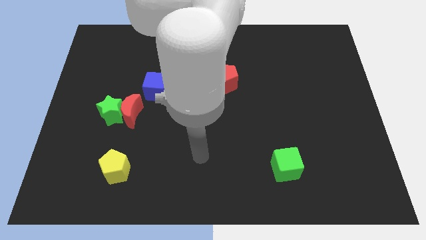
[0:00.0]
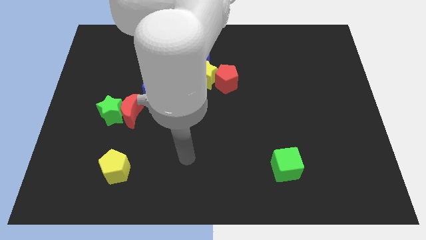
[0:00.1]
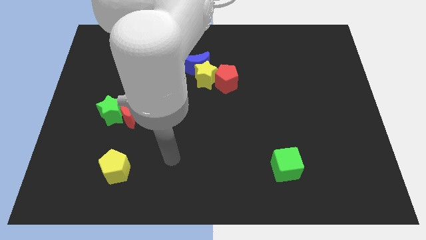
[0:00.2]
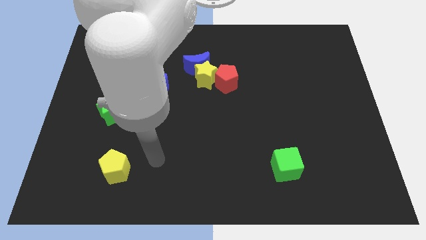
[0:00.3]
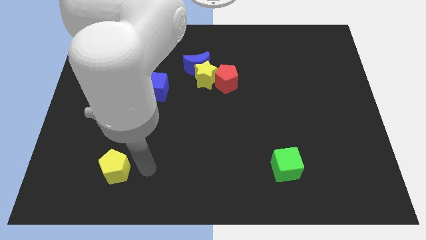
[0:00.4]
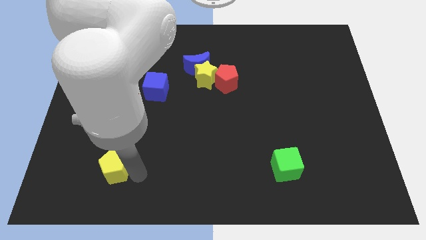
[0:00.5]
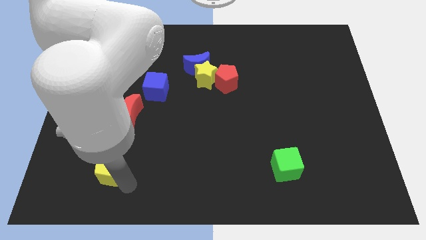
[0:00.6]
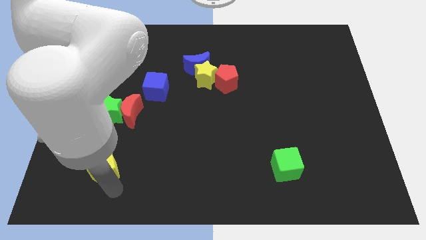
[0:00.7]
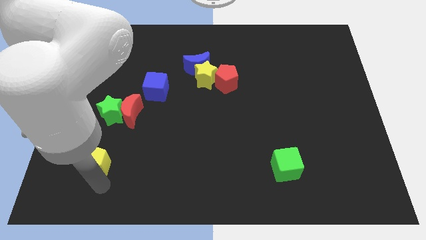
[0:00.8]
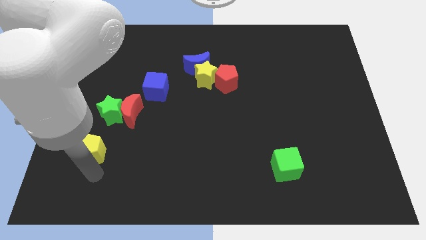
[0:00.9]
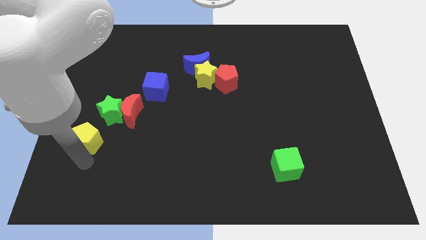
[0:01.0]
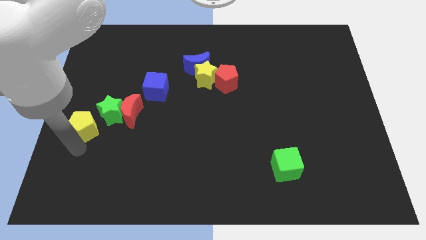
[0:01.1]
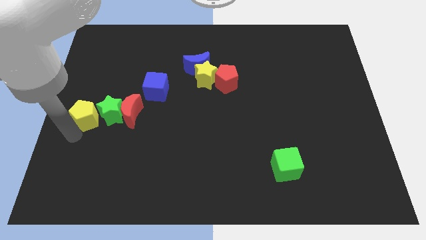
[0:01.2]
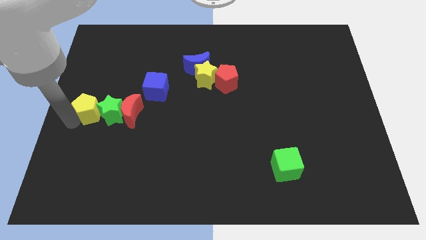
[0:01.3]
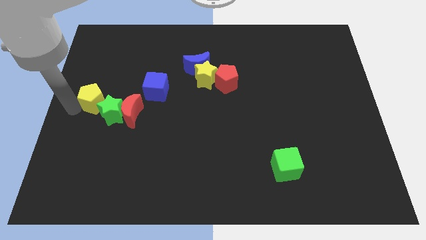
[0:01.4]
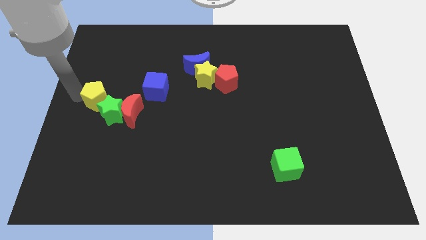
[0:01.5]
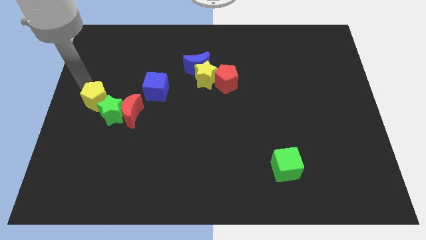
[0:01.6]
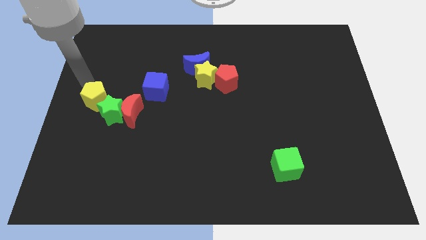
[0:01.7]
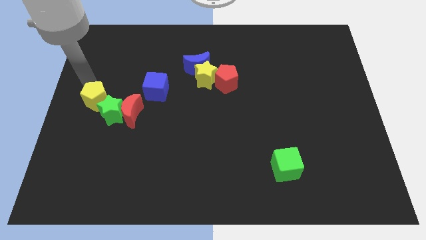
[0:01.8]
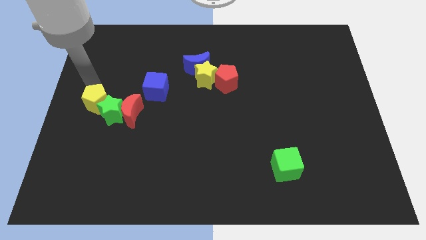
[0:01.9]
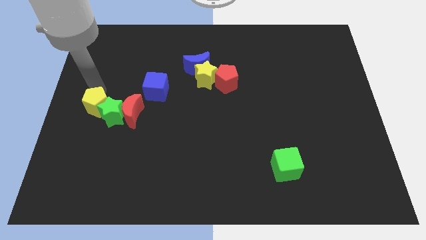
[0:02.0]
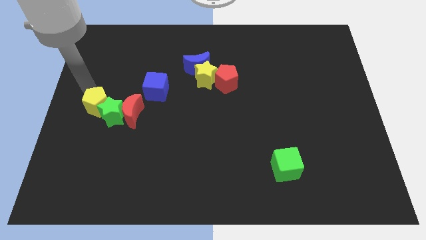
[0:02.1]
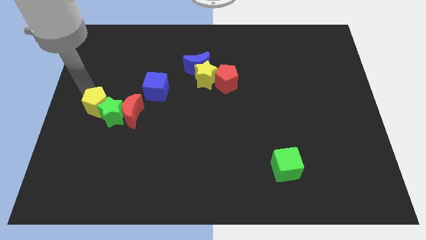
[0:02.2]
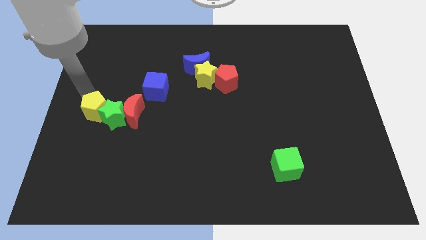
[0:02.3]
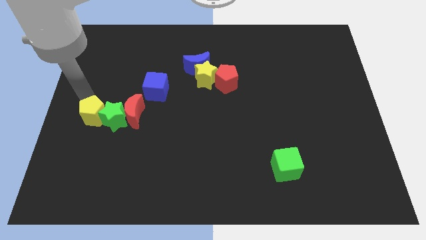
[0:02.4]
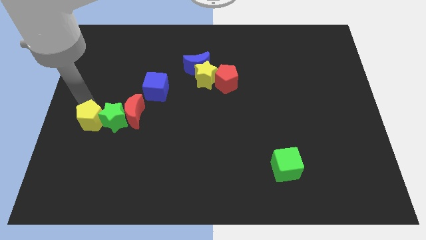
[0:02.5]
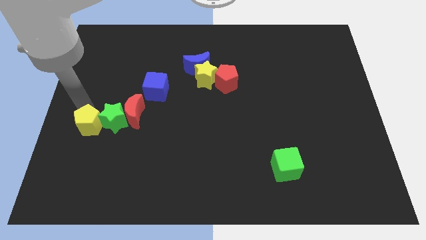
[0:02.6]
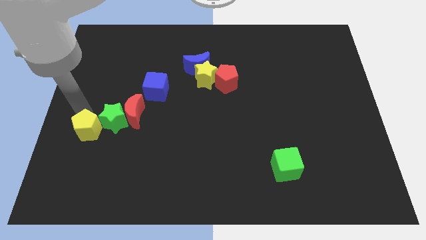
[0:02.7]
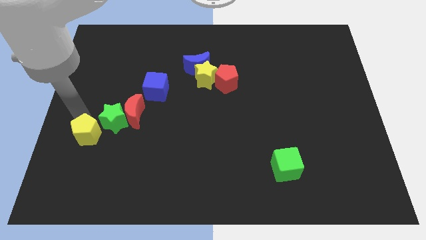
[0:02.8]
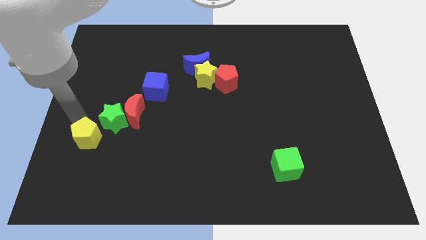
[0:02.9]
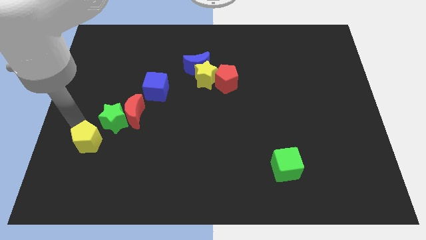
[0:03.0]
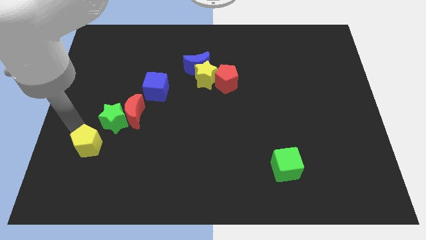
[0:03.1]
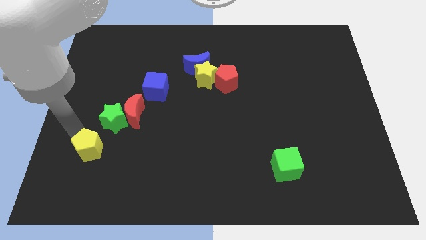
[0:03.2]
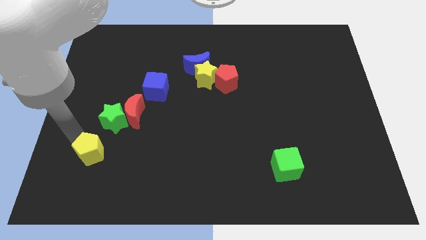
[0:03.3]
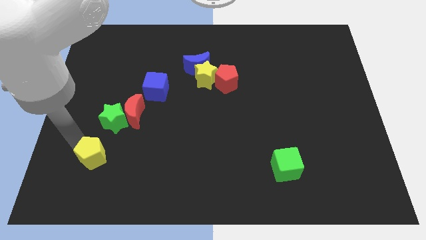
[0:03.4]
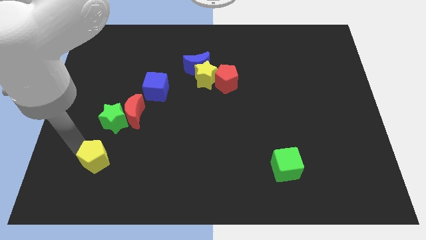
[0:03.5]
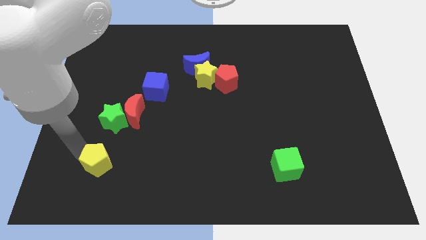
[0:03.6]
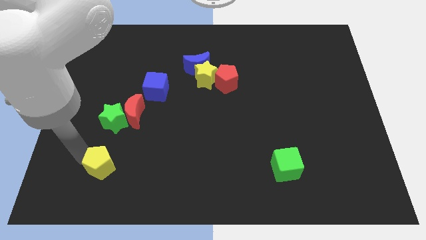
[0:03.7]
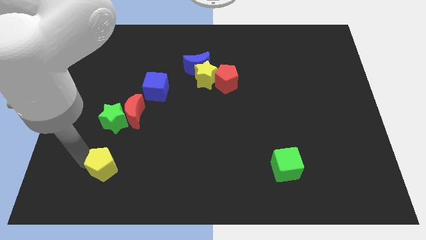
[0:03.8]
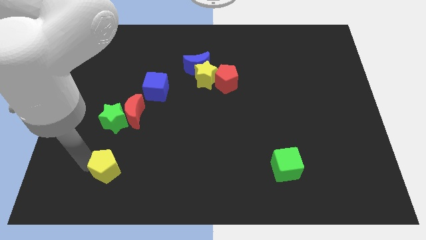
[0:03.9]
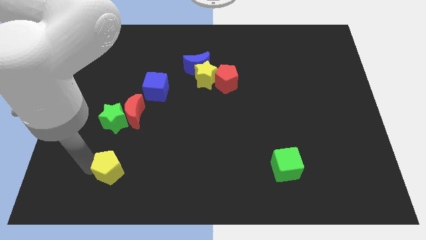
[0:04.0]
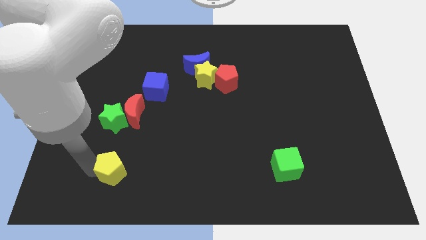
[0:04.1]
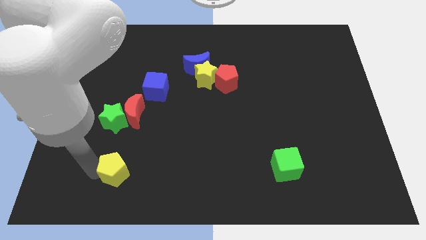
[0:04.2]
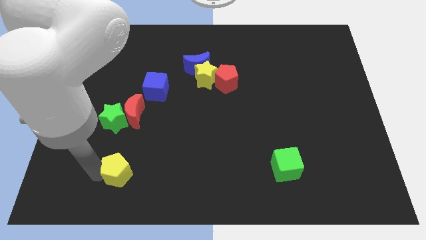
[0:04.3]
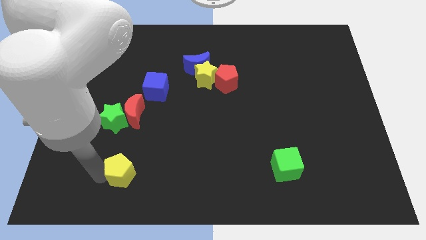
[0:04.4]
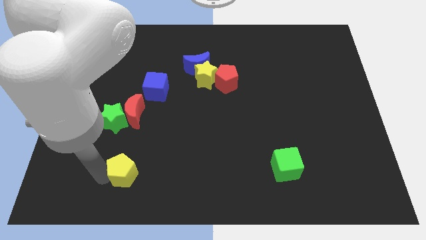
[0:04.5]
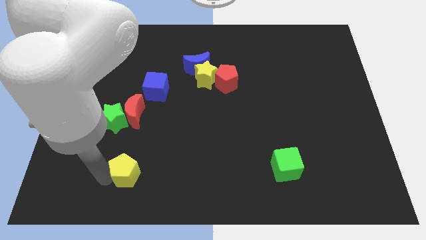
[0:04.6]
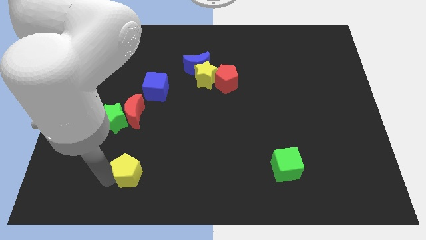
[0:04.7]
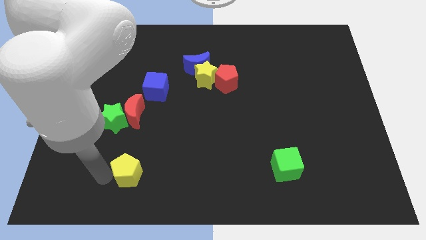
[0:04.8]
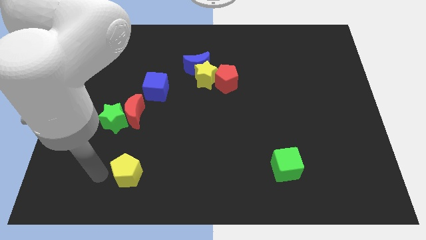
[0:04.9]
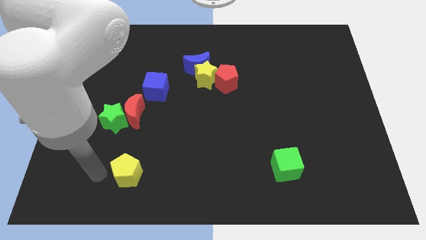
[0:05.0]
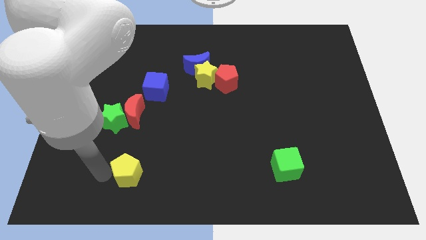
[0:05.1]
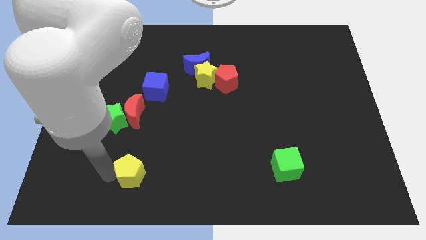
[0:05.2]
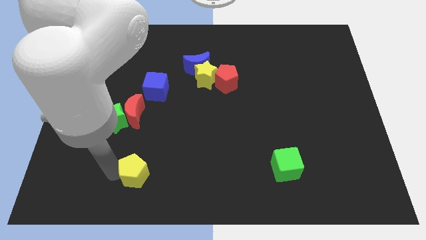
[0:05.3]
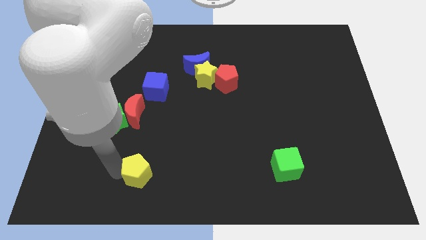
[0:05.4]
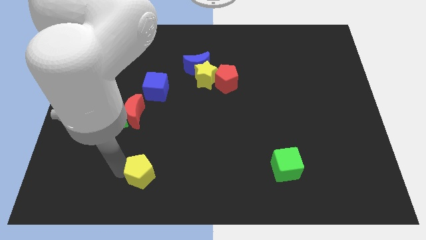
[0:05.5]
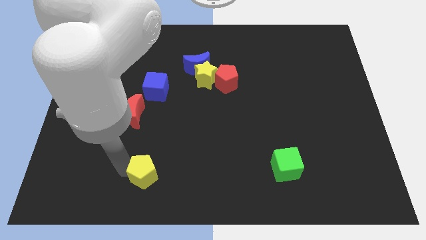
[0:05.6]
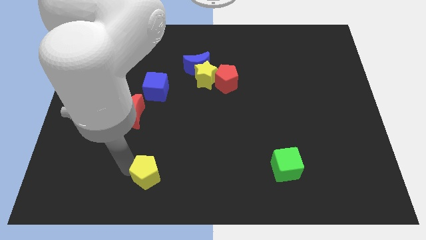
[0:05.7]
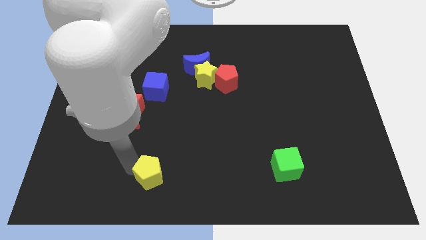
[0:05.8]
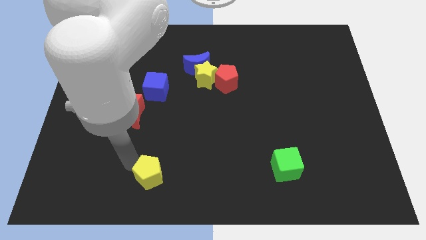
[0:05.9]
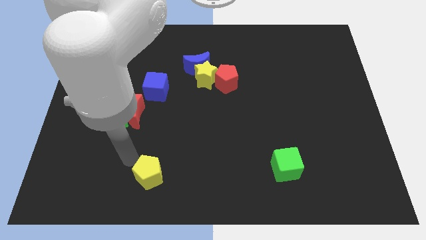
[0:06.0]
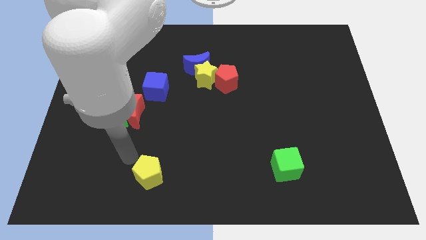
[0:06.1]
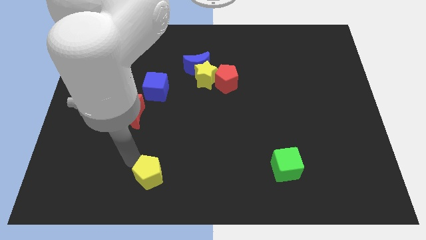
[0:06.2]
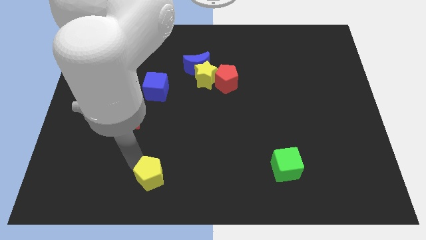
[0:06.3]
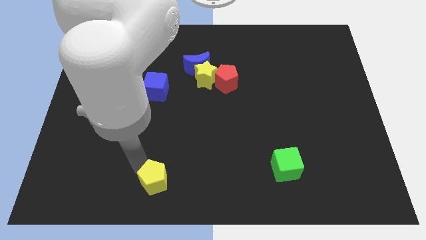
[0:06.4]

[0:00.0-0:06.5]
move the yellow pentagon to the bottom side

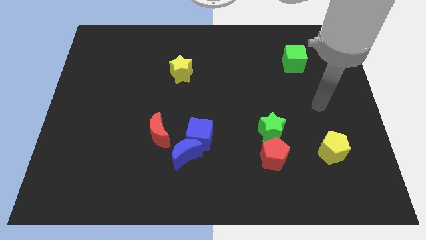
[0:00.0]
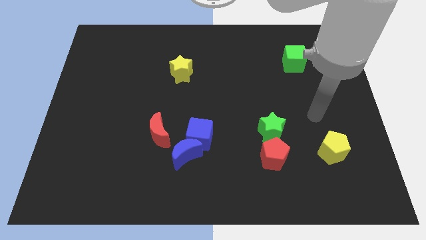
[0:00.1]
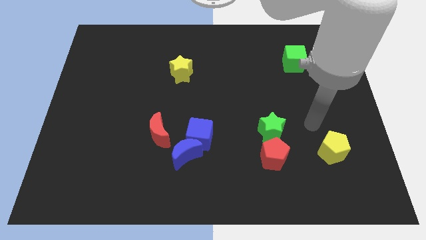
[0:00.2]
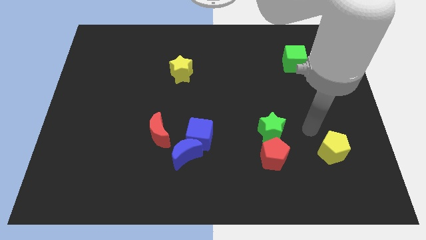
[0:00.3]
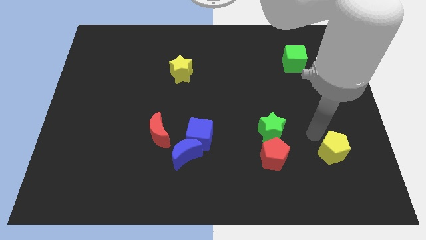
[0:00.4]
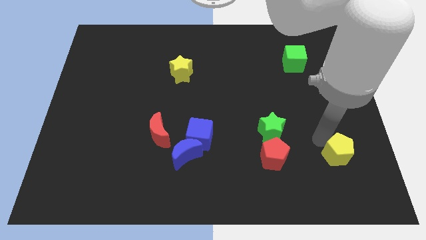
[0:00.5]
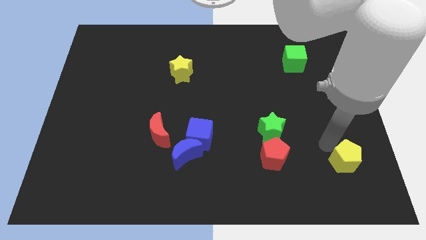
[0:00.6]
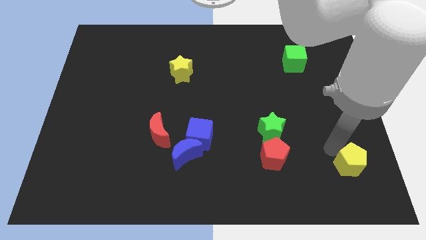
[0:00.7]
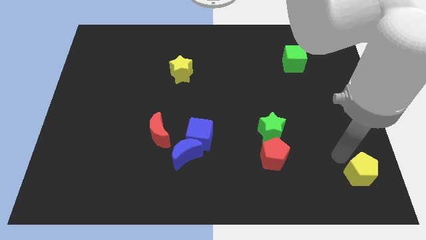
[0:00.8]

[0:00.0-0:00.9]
put the yellow pentagon to the bottom right of the board
